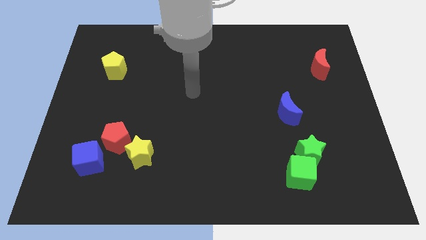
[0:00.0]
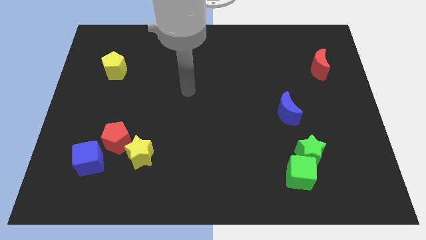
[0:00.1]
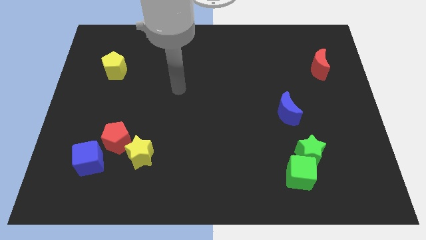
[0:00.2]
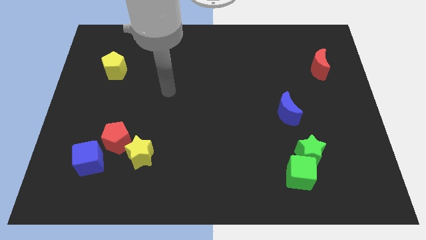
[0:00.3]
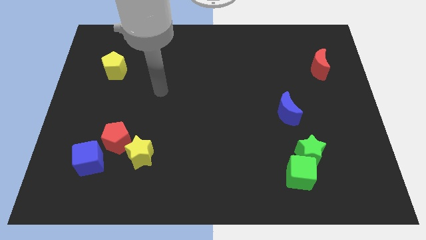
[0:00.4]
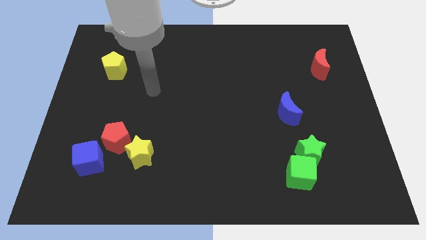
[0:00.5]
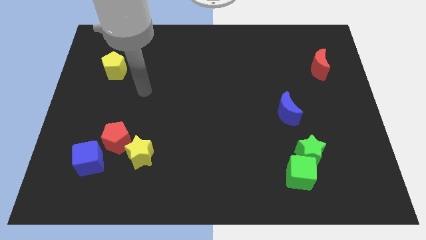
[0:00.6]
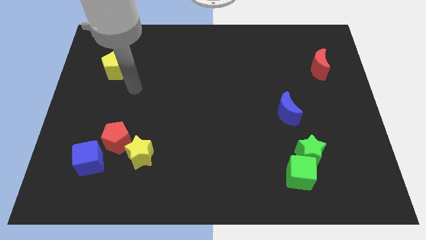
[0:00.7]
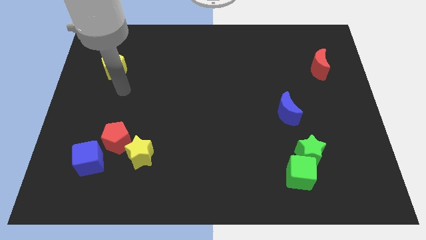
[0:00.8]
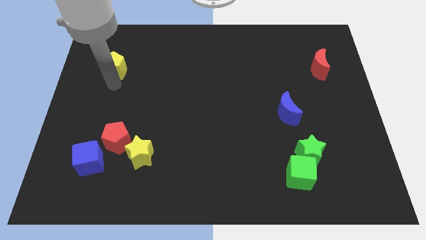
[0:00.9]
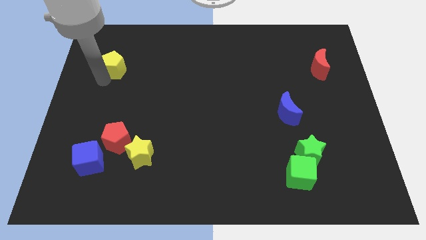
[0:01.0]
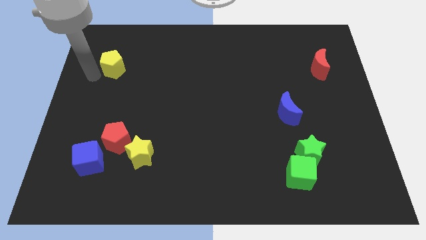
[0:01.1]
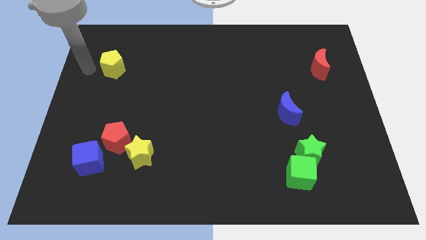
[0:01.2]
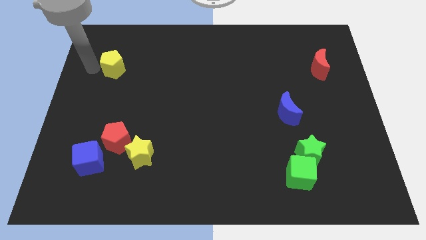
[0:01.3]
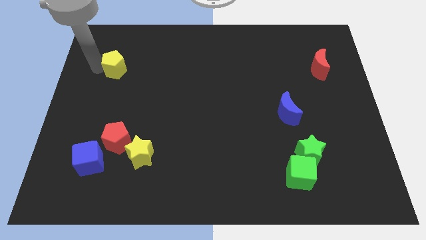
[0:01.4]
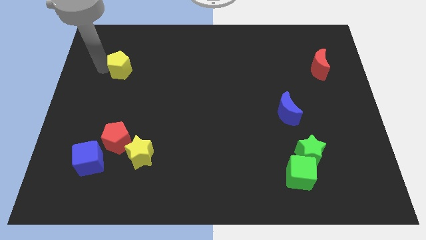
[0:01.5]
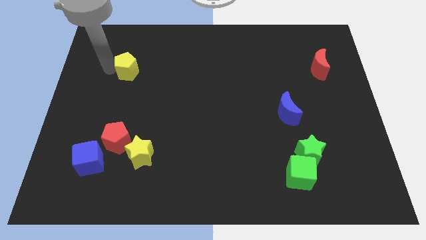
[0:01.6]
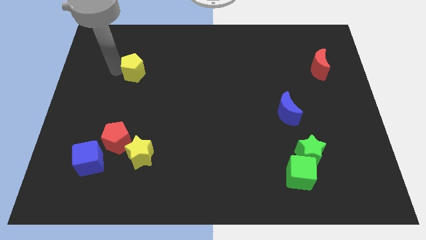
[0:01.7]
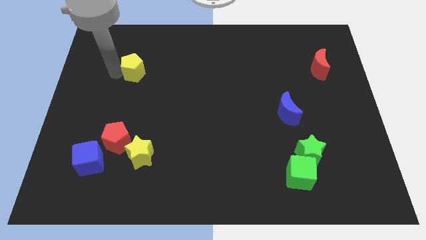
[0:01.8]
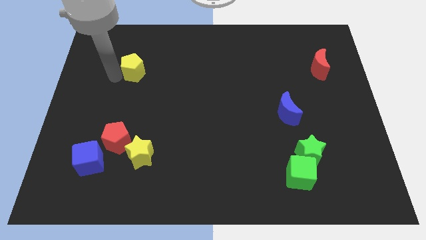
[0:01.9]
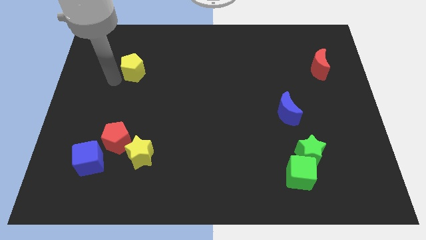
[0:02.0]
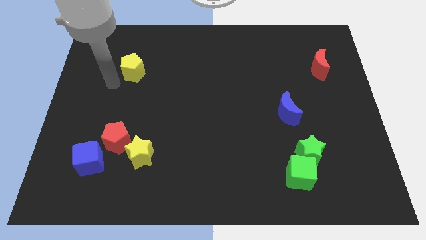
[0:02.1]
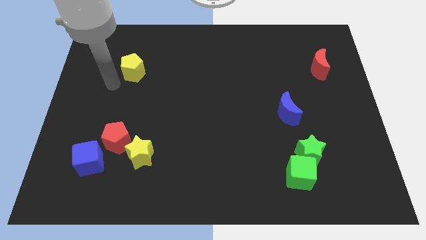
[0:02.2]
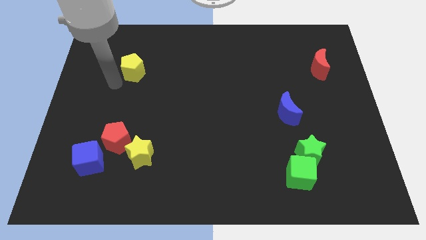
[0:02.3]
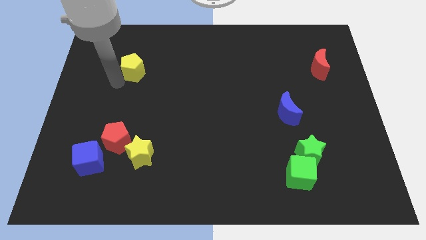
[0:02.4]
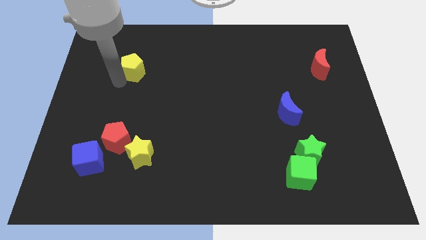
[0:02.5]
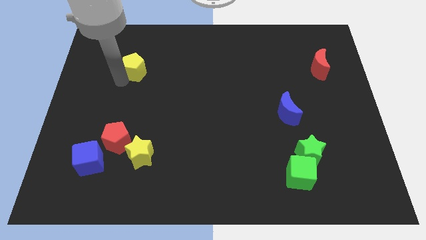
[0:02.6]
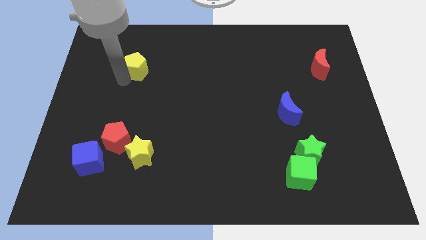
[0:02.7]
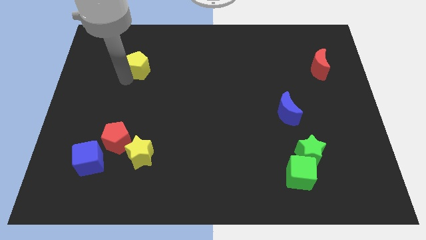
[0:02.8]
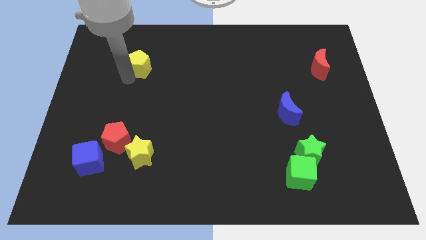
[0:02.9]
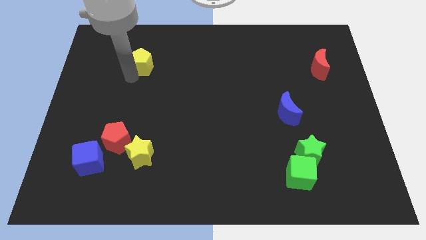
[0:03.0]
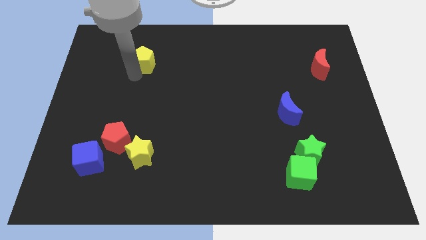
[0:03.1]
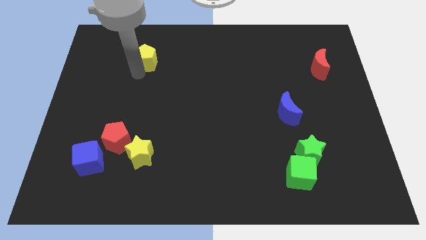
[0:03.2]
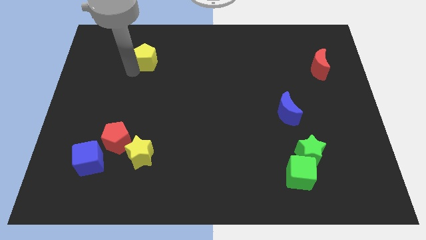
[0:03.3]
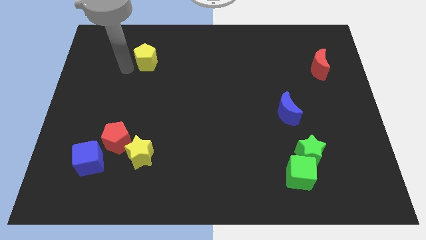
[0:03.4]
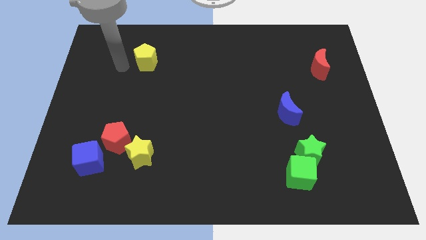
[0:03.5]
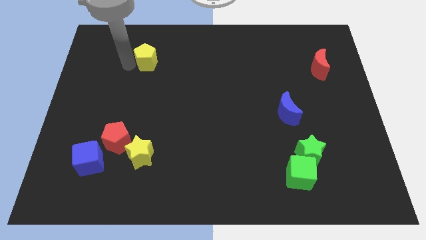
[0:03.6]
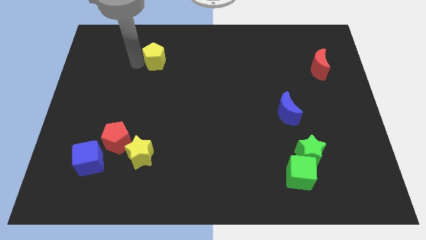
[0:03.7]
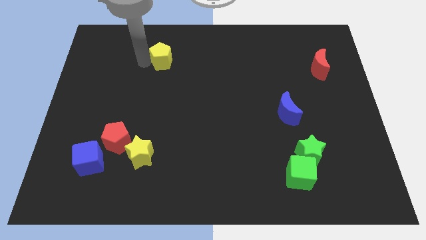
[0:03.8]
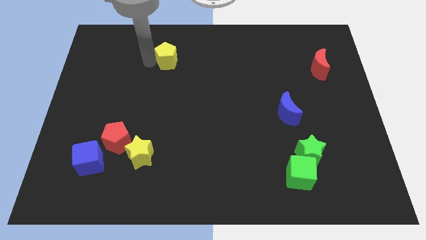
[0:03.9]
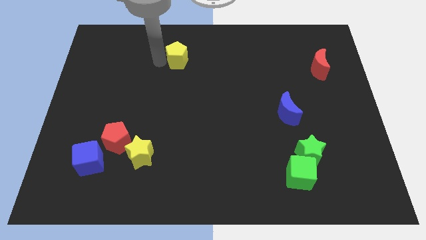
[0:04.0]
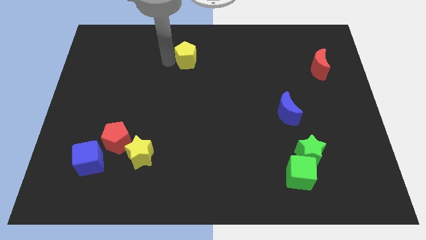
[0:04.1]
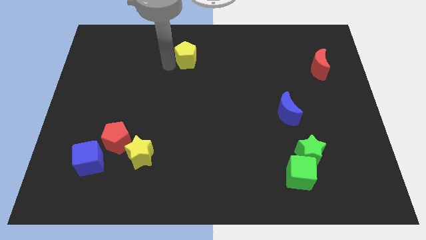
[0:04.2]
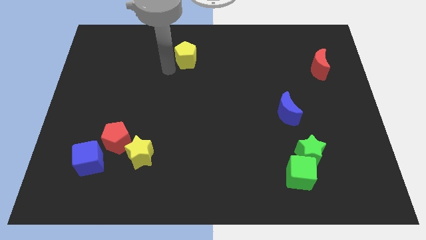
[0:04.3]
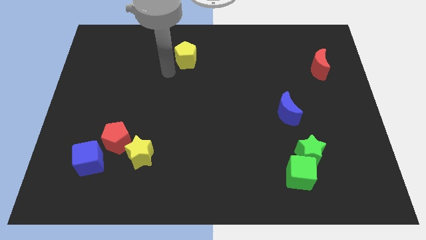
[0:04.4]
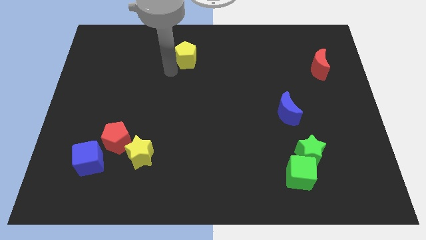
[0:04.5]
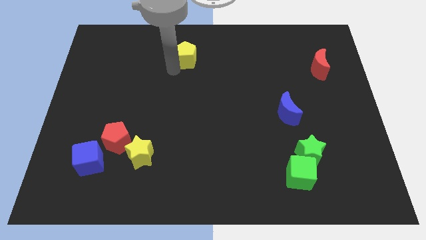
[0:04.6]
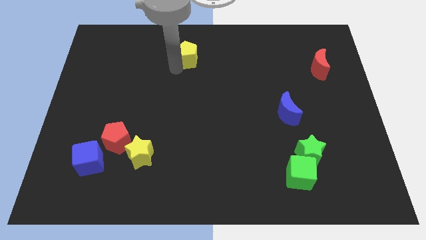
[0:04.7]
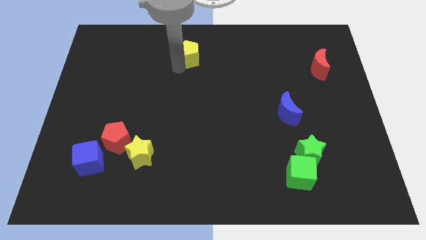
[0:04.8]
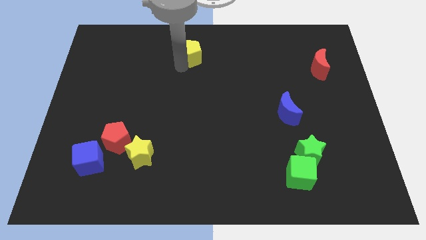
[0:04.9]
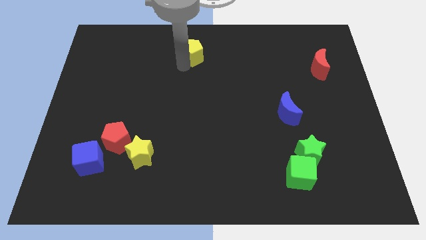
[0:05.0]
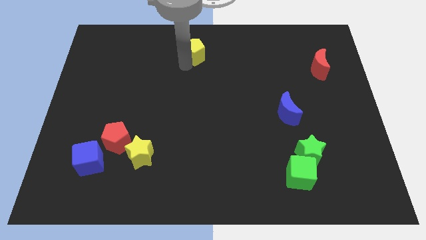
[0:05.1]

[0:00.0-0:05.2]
push the yellow pentagon to the top side
